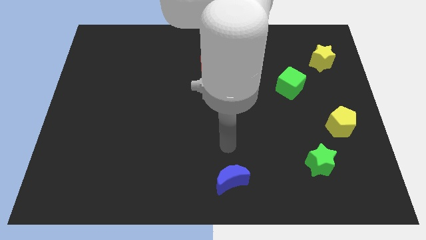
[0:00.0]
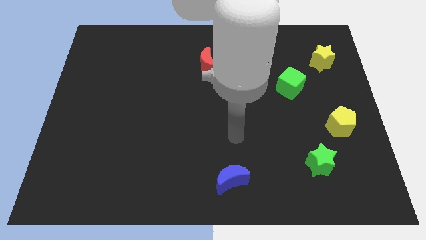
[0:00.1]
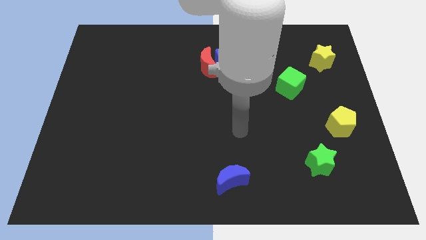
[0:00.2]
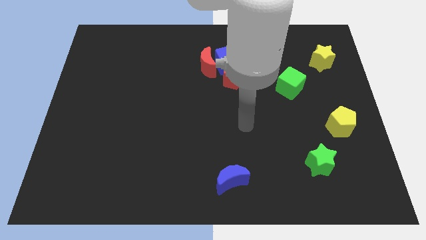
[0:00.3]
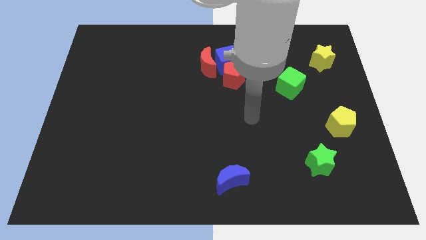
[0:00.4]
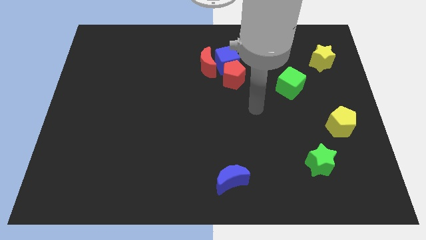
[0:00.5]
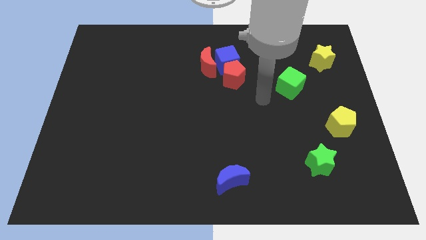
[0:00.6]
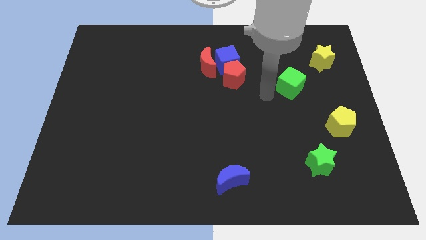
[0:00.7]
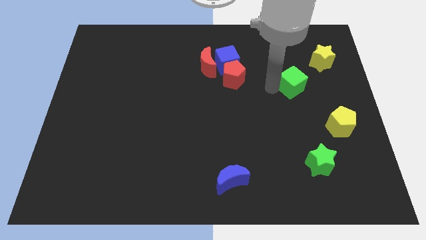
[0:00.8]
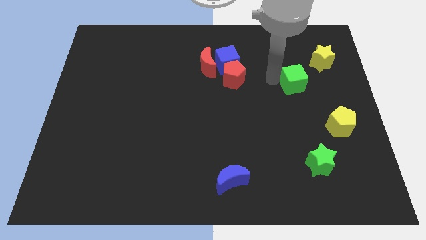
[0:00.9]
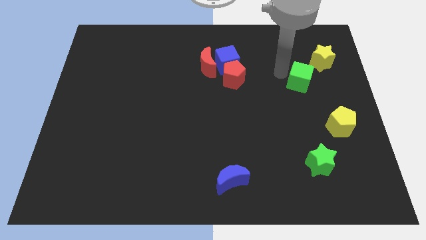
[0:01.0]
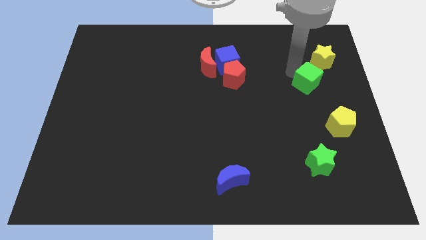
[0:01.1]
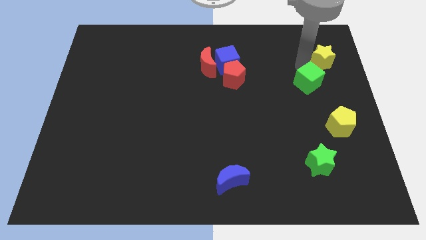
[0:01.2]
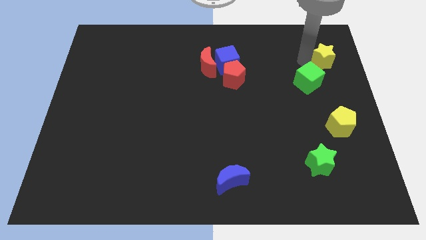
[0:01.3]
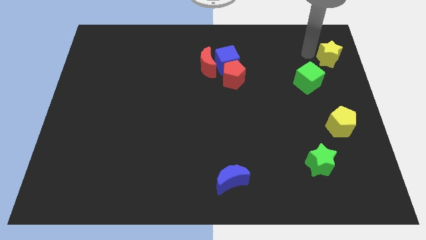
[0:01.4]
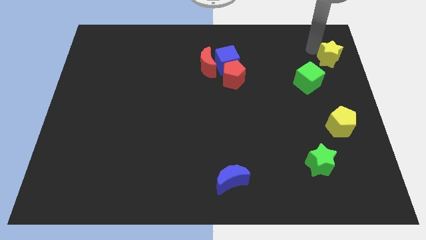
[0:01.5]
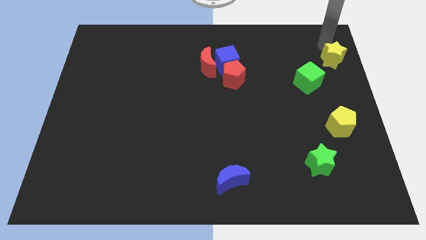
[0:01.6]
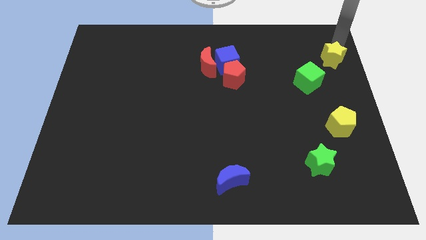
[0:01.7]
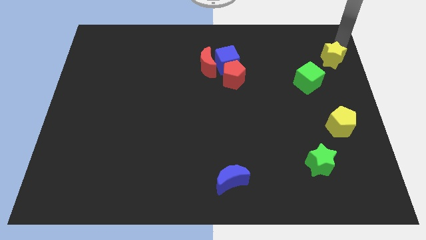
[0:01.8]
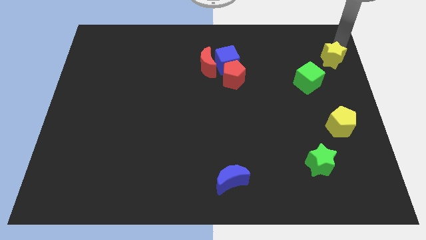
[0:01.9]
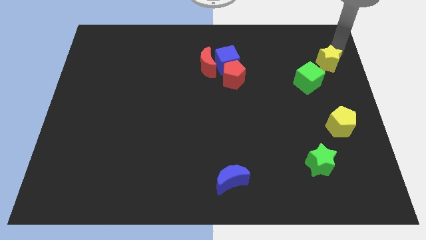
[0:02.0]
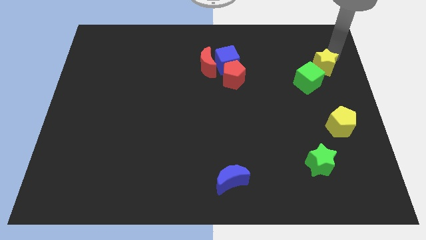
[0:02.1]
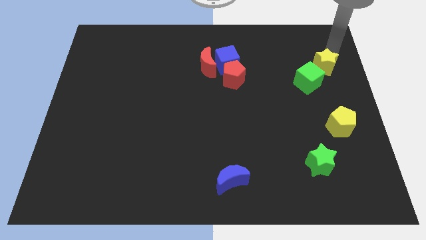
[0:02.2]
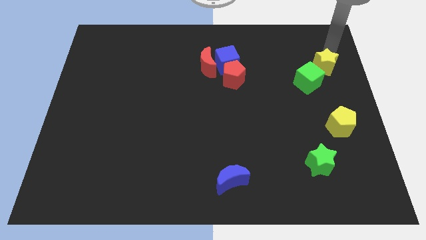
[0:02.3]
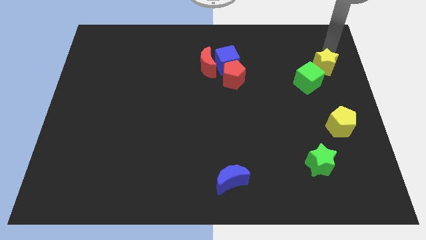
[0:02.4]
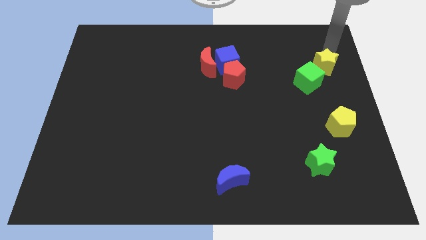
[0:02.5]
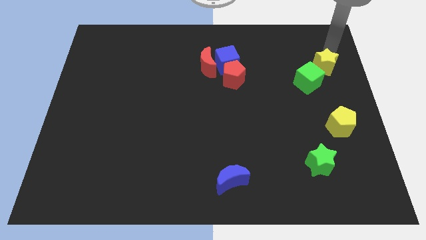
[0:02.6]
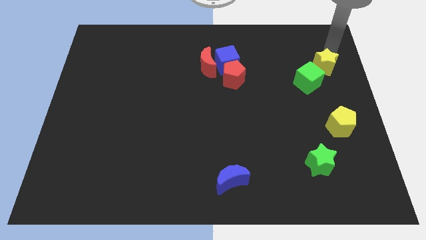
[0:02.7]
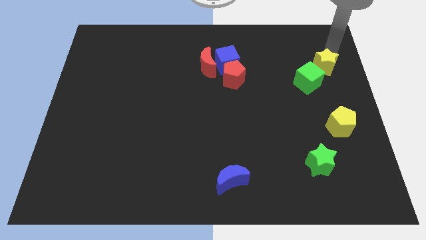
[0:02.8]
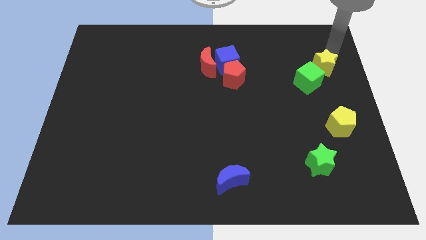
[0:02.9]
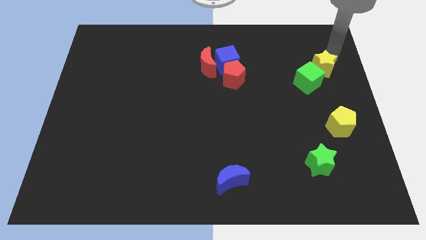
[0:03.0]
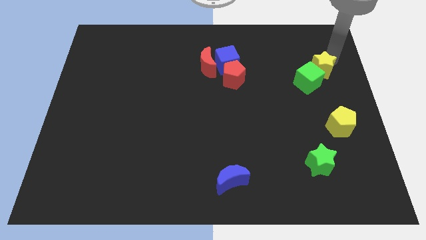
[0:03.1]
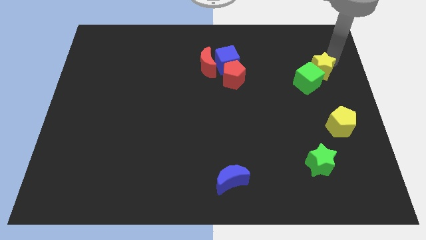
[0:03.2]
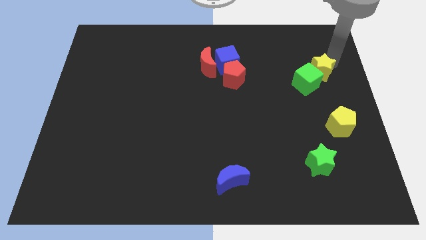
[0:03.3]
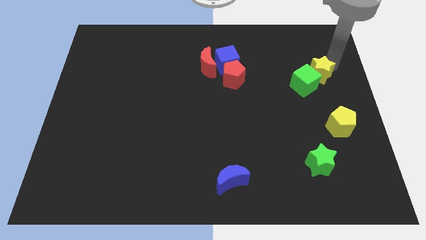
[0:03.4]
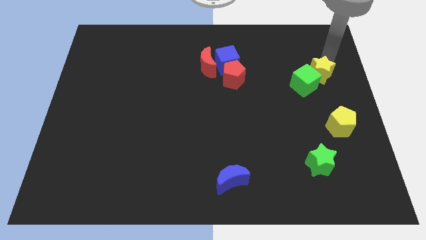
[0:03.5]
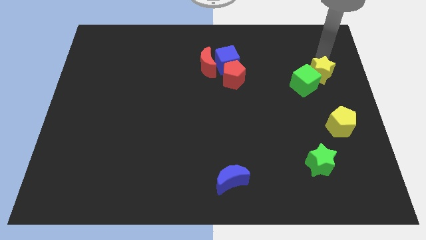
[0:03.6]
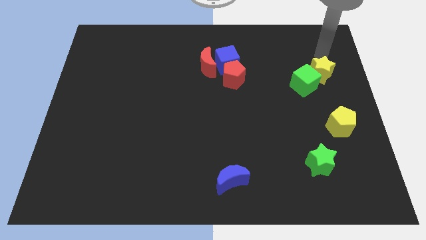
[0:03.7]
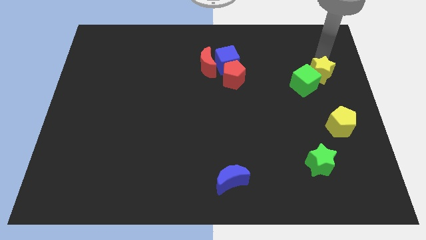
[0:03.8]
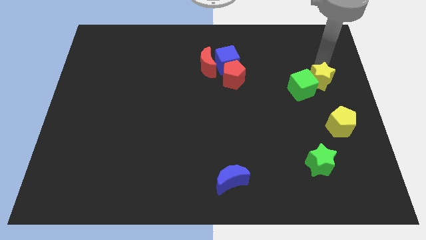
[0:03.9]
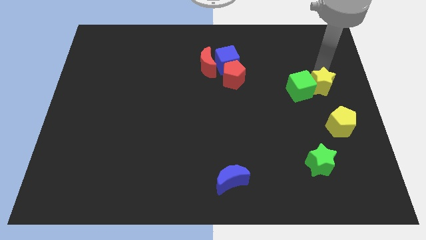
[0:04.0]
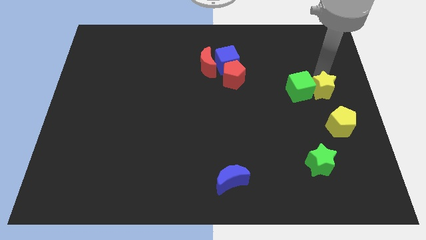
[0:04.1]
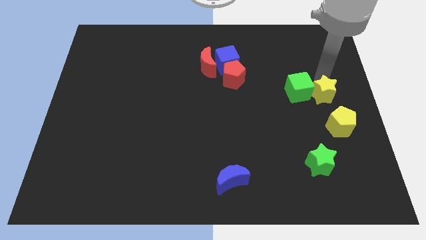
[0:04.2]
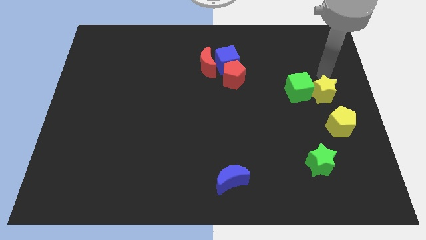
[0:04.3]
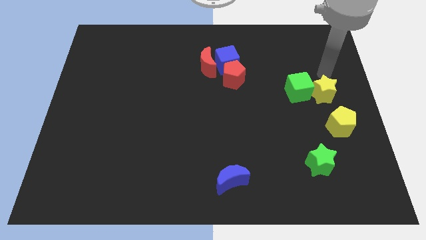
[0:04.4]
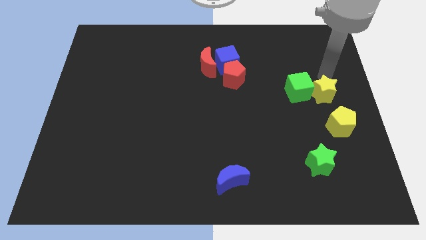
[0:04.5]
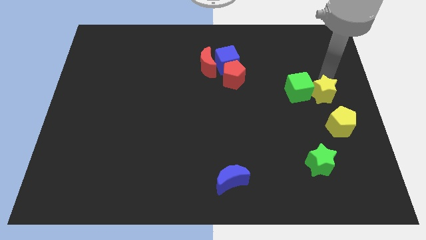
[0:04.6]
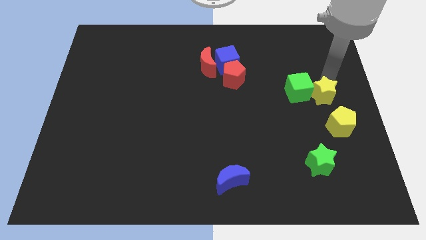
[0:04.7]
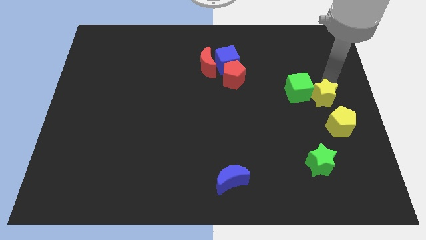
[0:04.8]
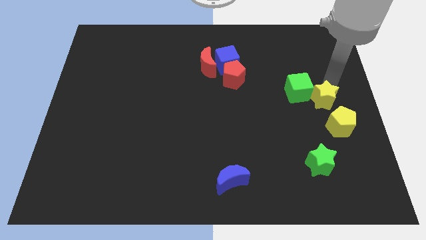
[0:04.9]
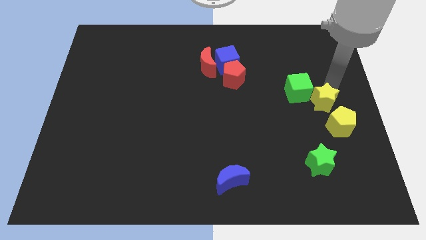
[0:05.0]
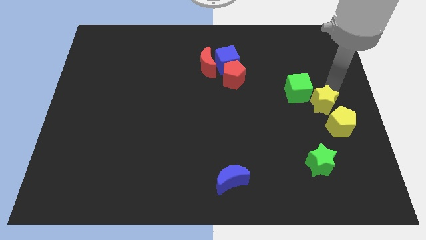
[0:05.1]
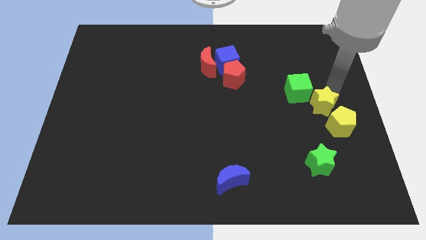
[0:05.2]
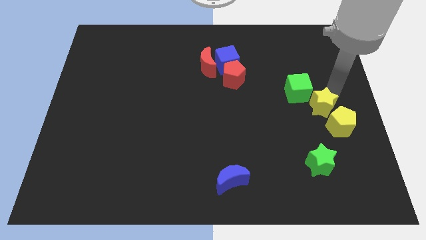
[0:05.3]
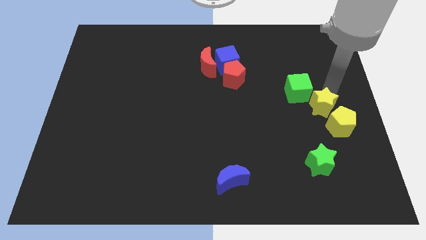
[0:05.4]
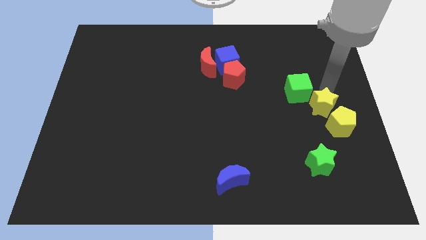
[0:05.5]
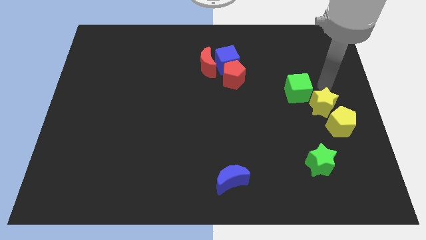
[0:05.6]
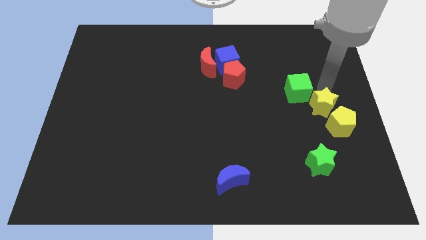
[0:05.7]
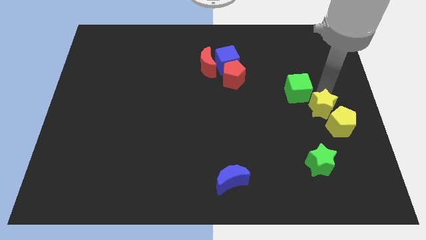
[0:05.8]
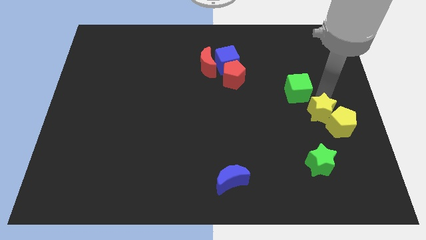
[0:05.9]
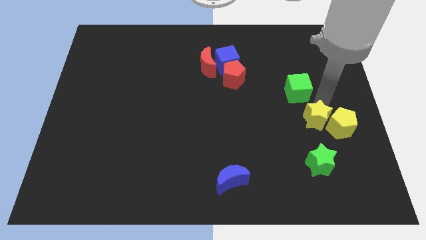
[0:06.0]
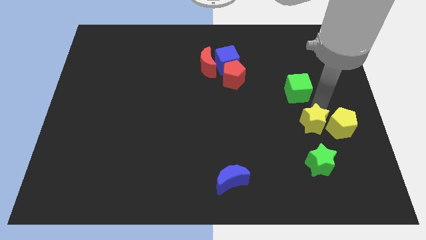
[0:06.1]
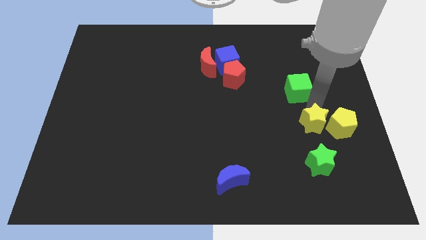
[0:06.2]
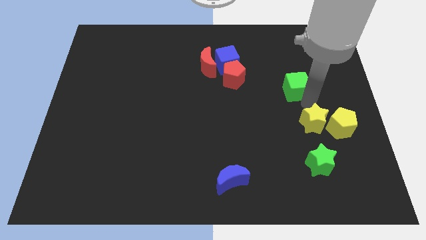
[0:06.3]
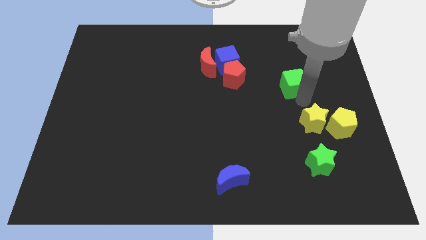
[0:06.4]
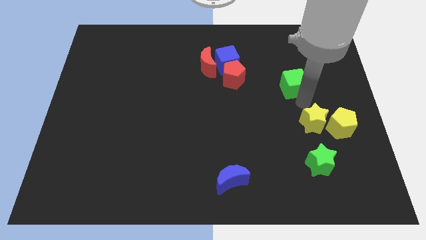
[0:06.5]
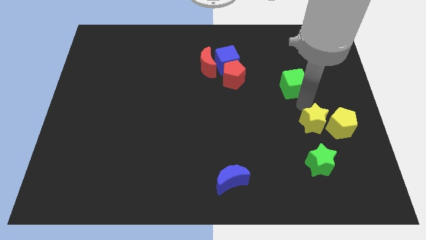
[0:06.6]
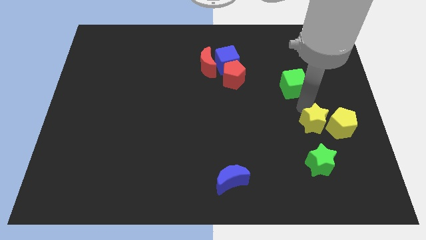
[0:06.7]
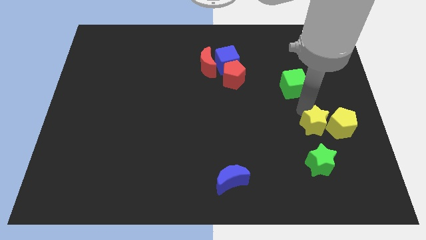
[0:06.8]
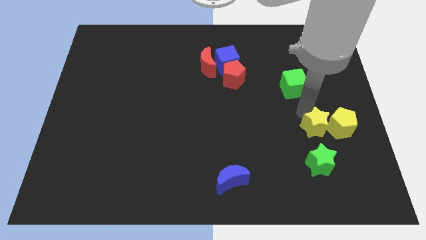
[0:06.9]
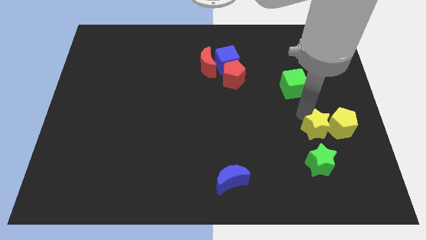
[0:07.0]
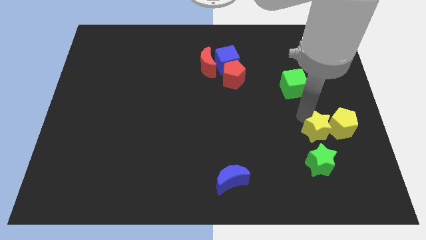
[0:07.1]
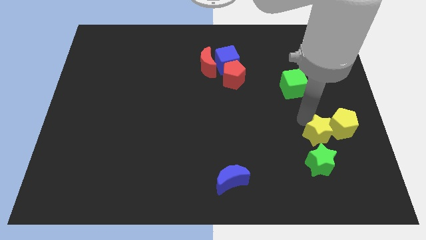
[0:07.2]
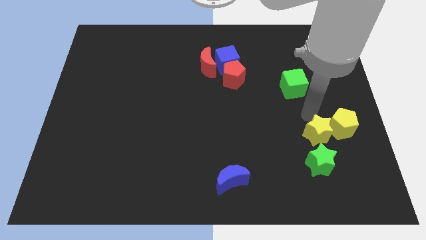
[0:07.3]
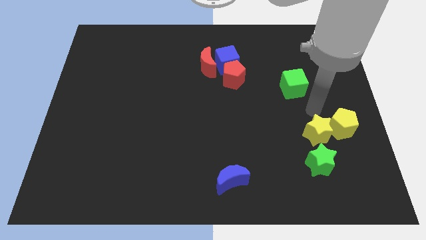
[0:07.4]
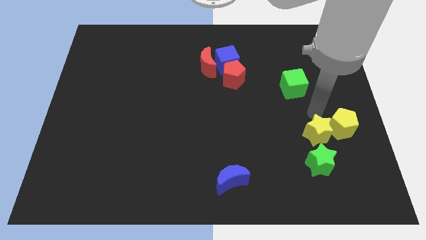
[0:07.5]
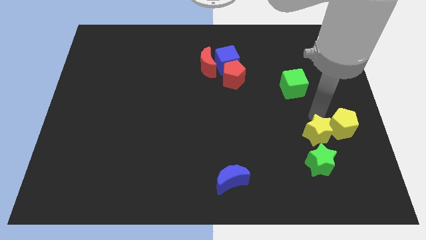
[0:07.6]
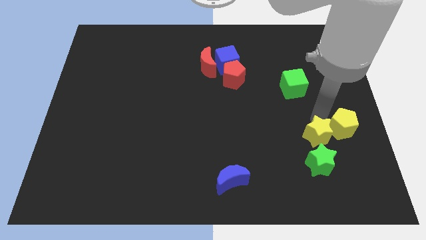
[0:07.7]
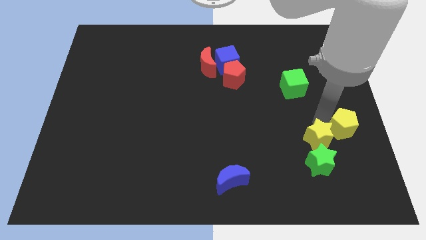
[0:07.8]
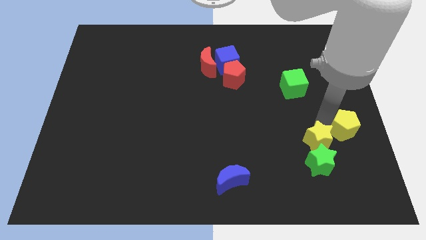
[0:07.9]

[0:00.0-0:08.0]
slide the yellow star to the green star
